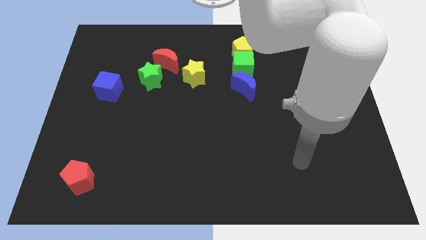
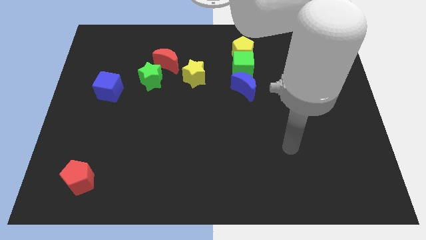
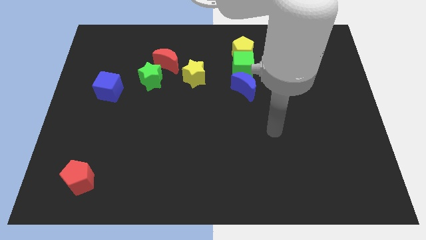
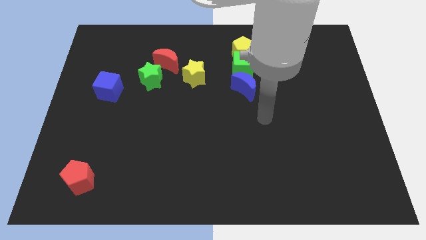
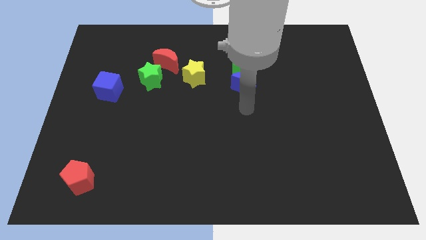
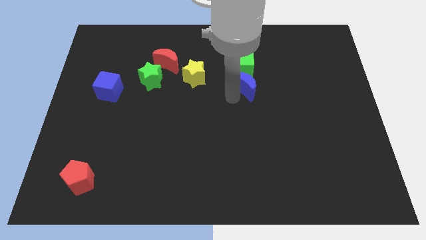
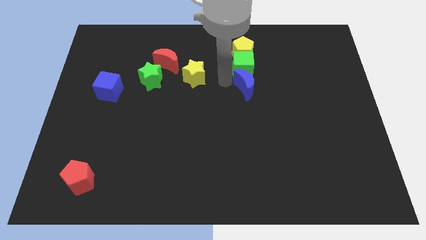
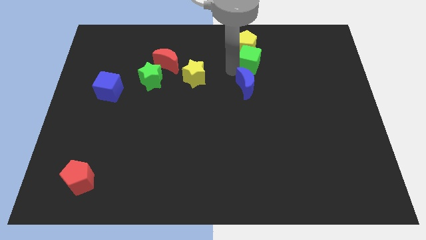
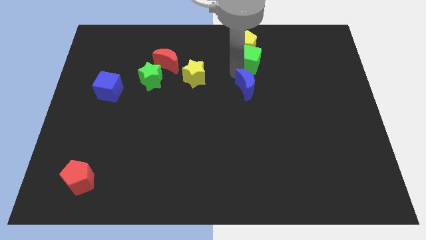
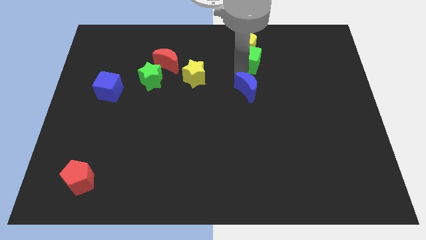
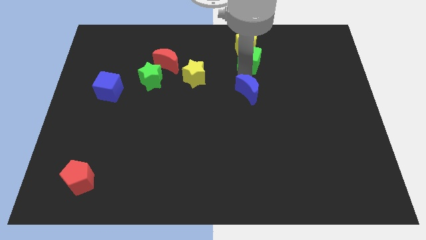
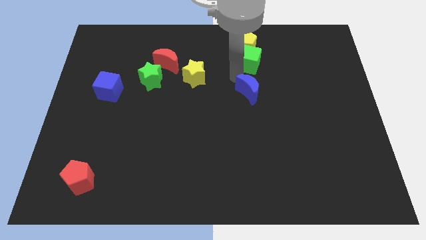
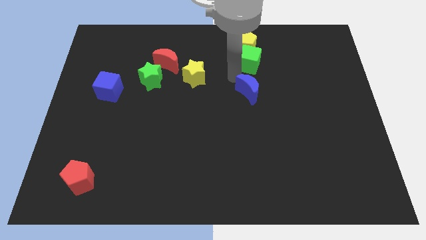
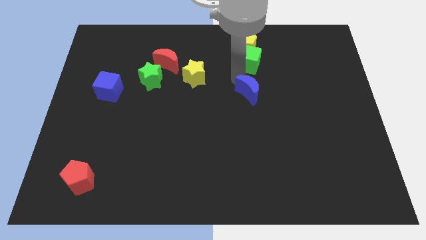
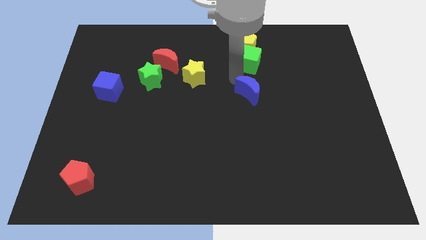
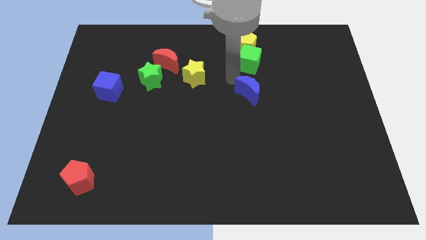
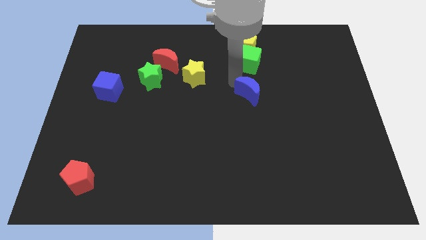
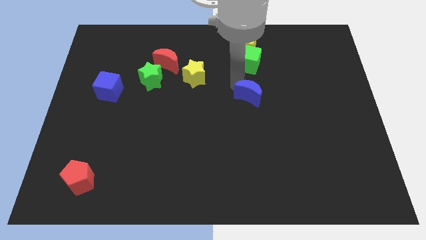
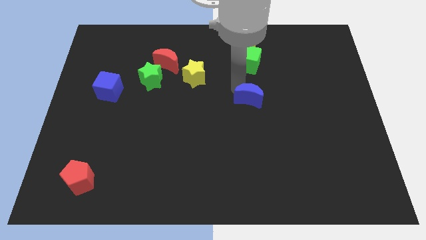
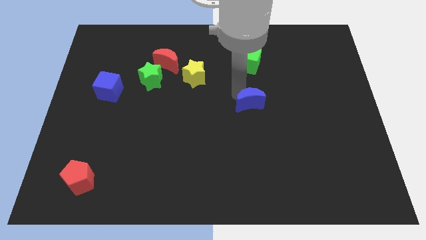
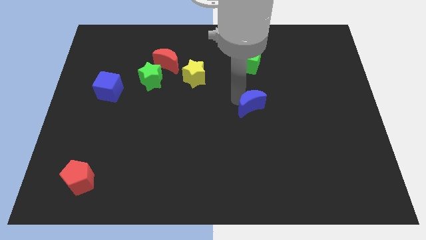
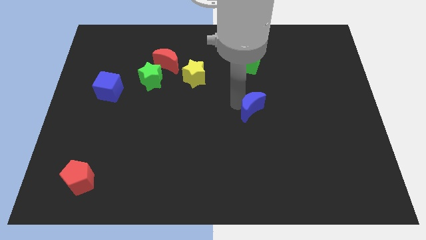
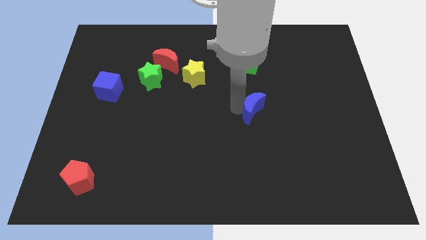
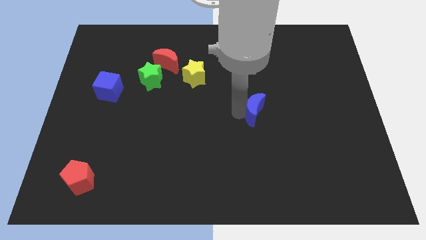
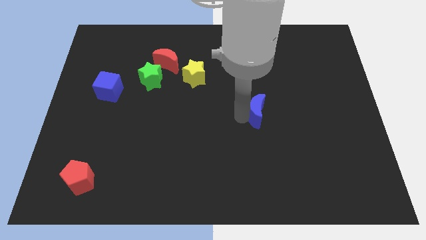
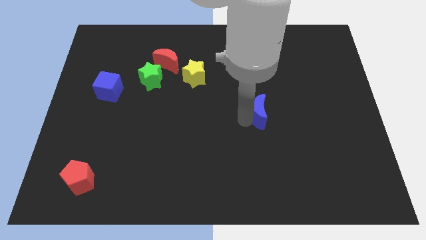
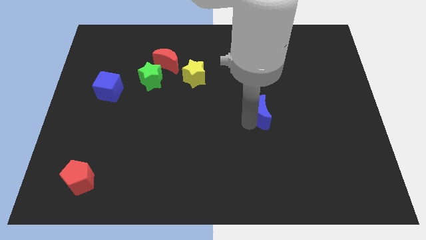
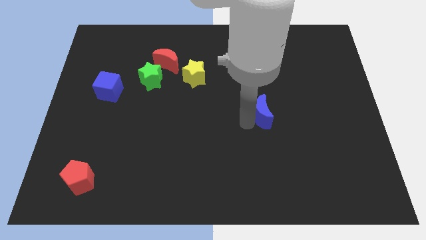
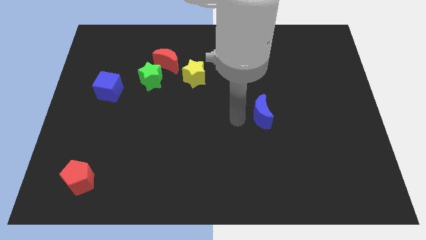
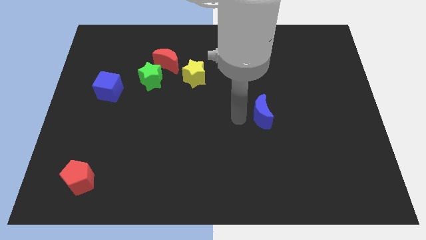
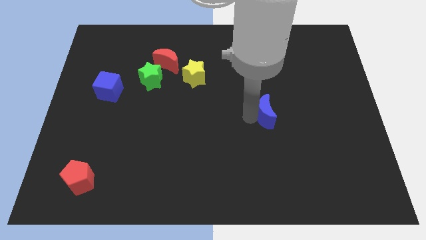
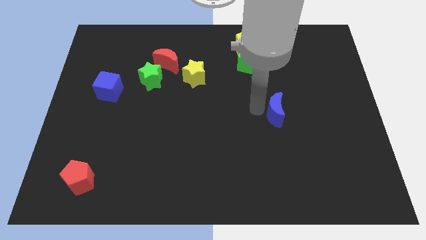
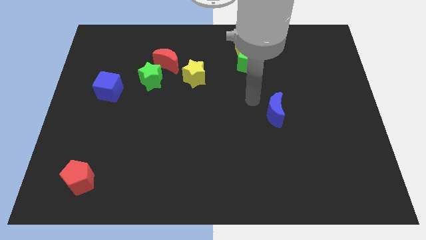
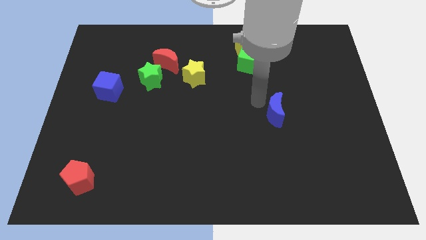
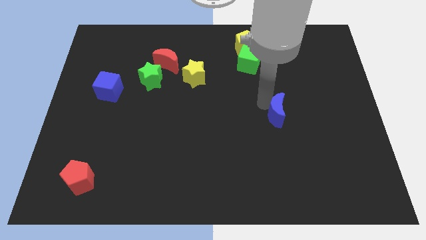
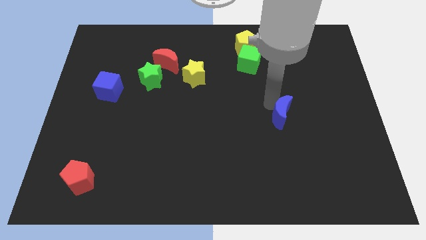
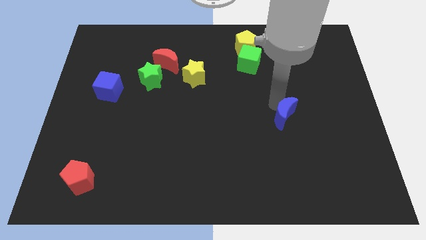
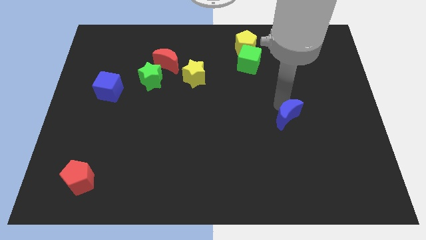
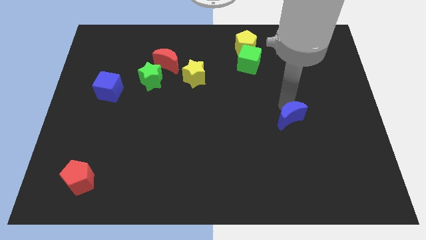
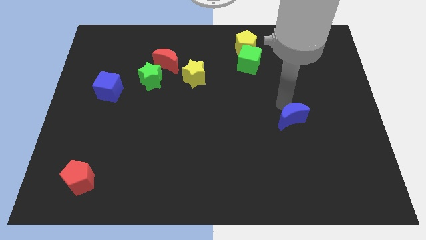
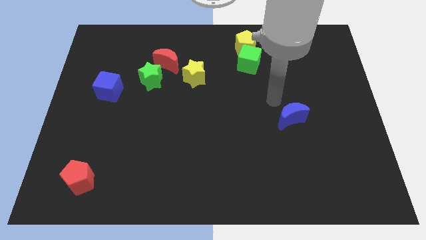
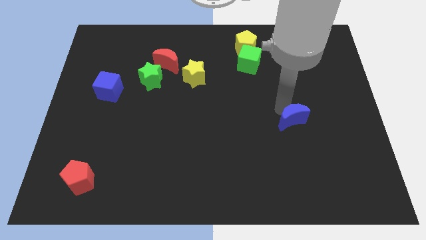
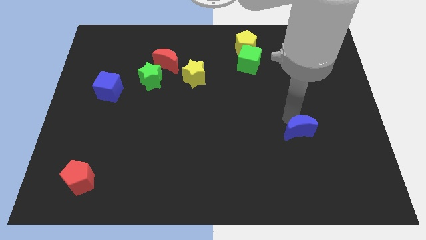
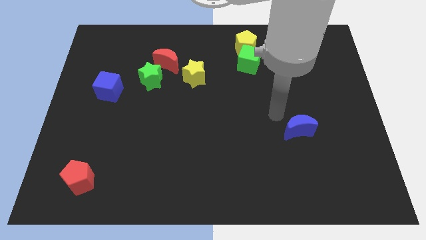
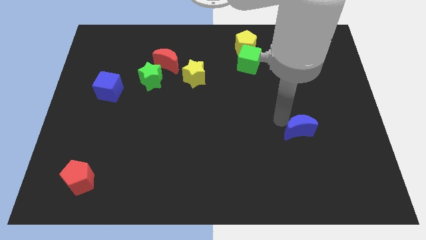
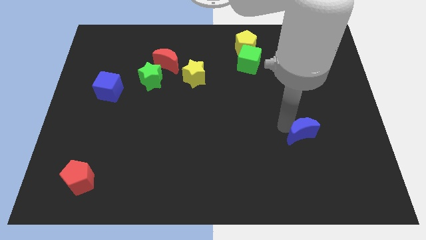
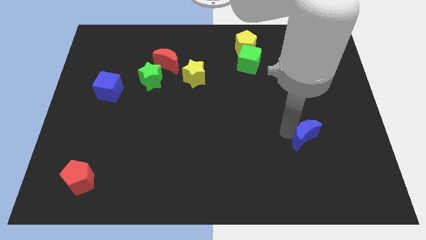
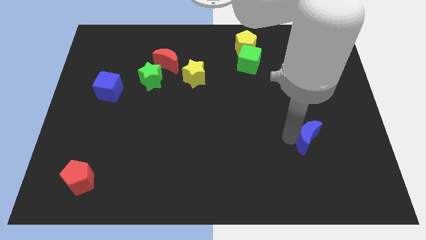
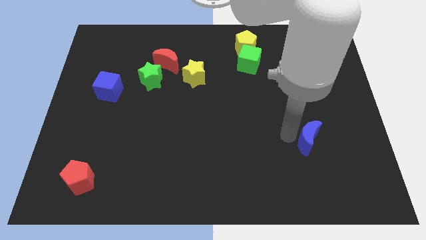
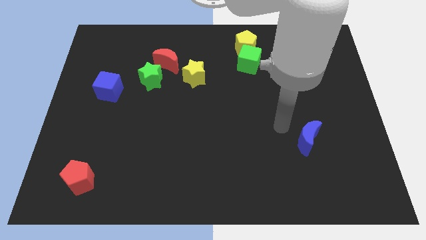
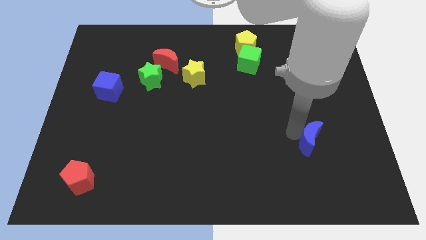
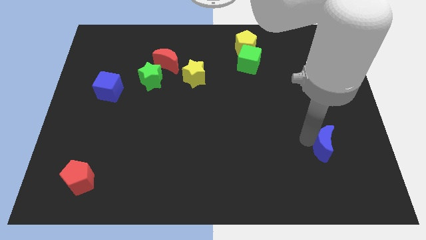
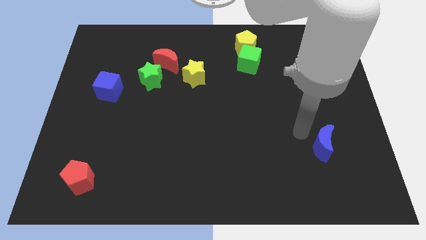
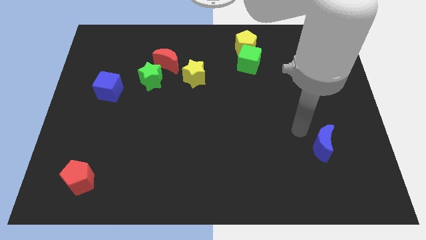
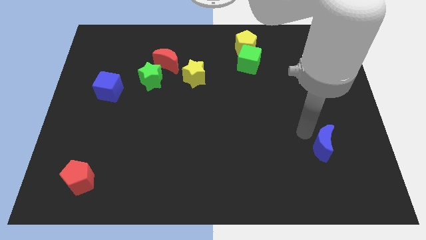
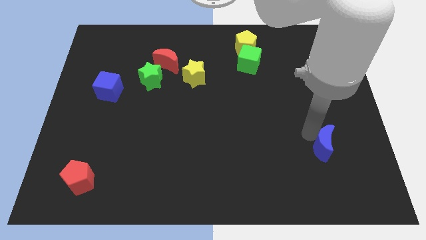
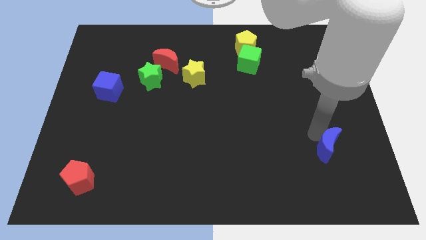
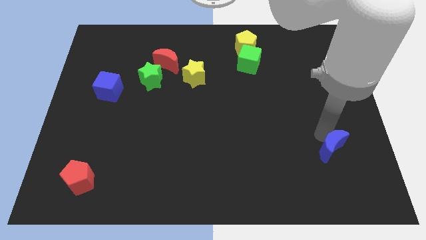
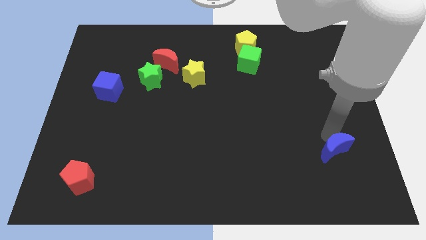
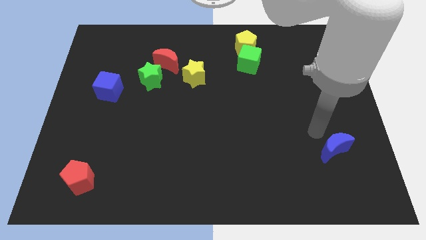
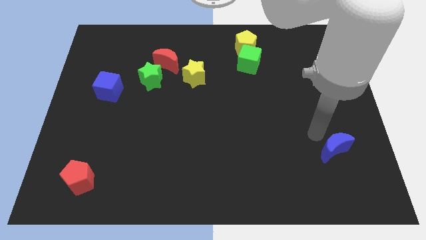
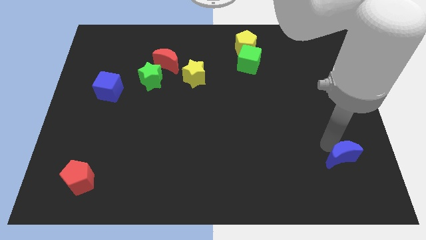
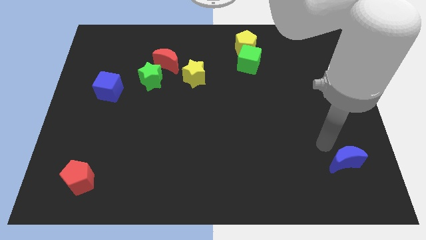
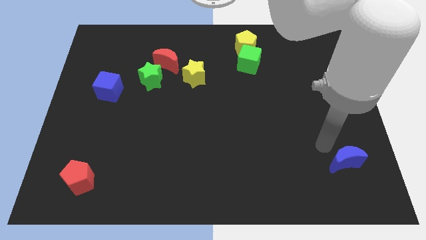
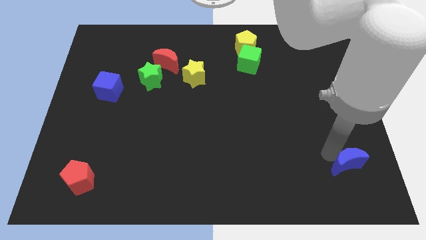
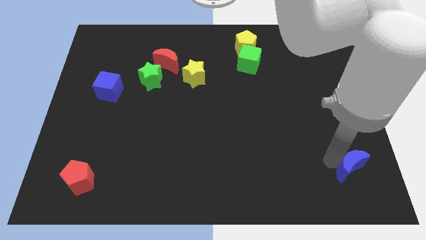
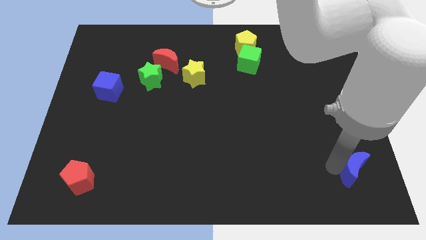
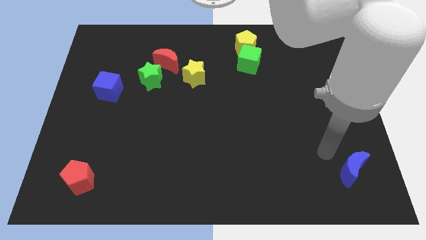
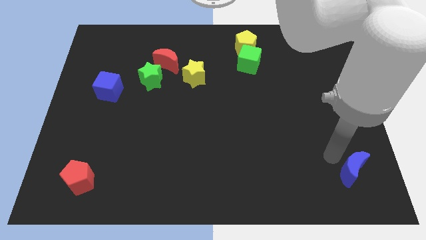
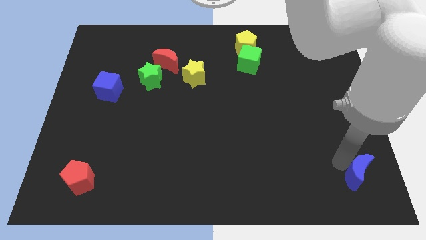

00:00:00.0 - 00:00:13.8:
slide the blue moon to the lower right corner

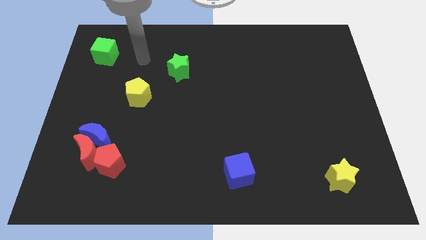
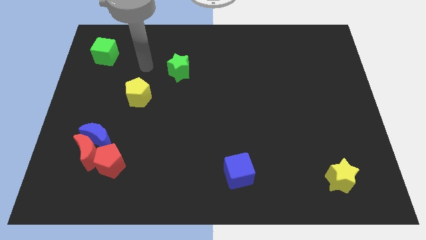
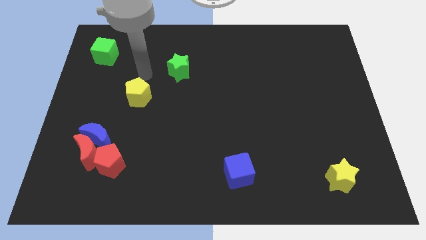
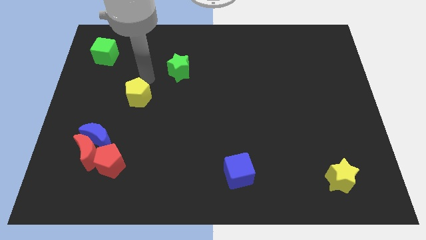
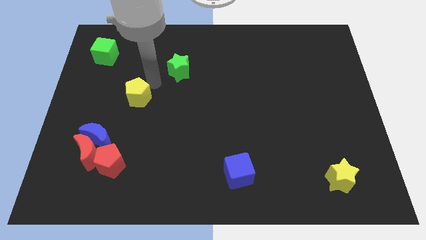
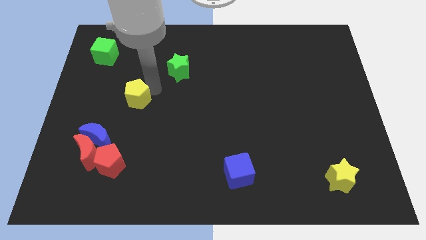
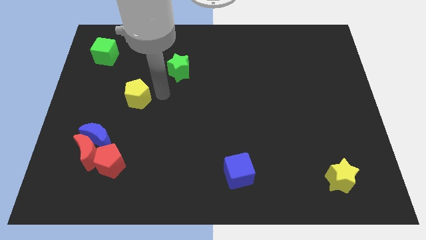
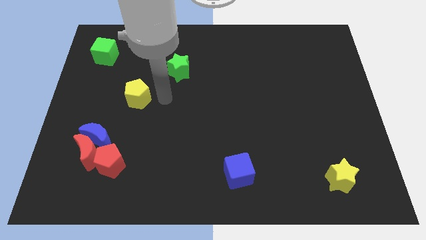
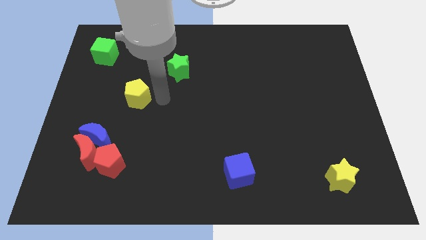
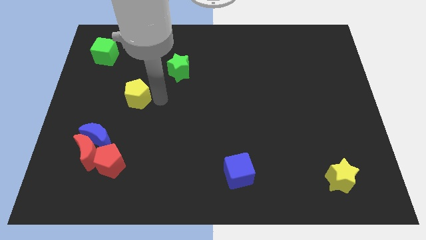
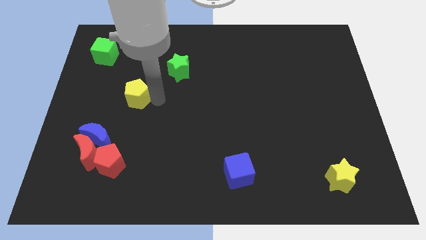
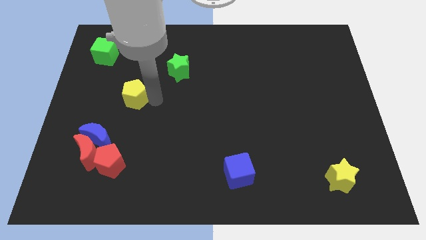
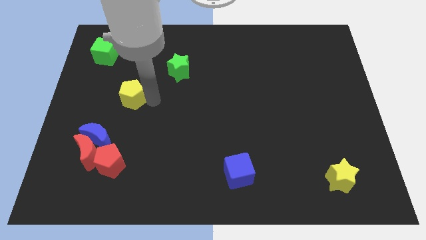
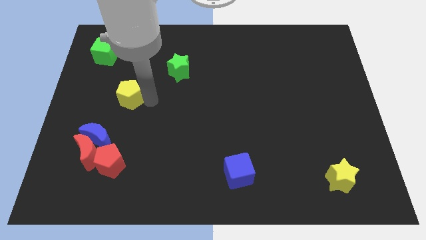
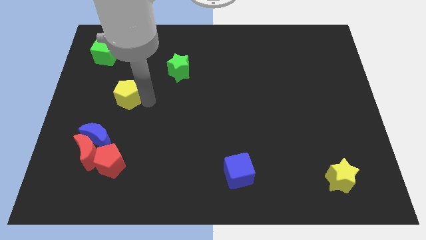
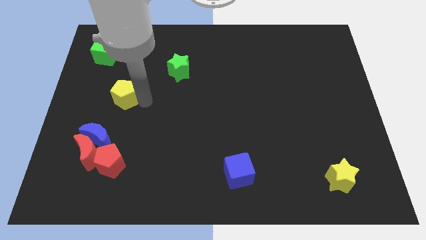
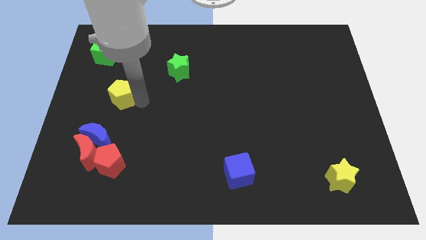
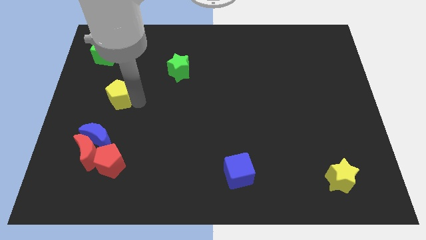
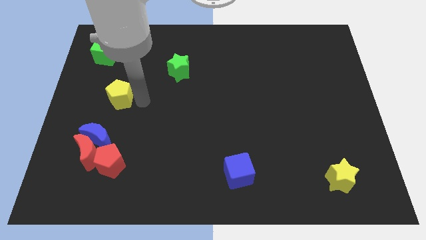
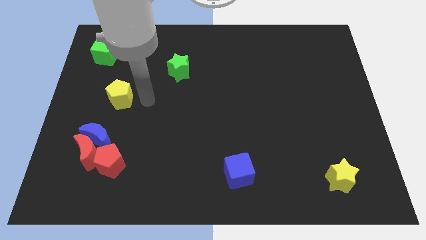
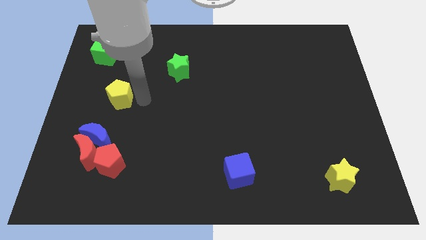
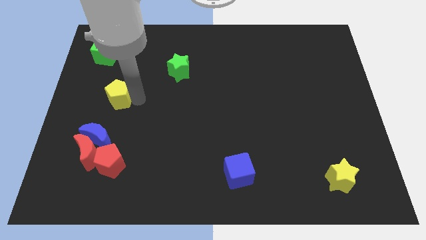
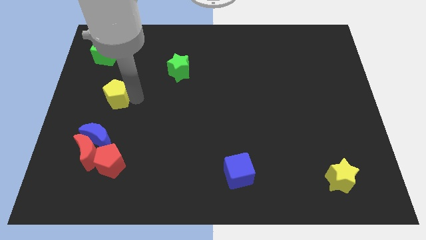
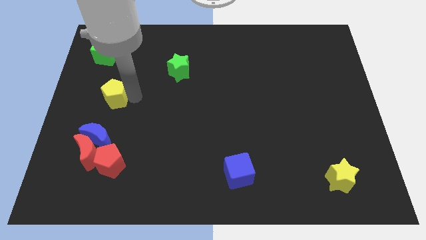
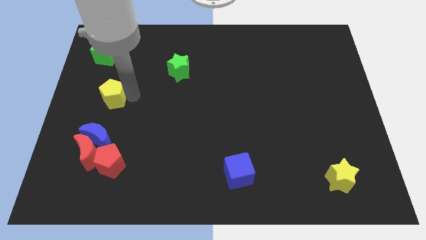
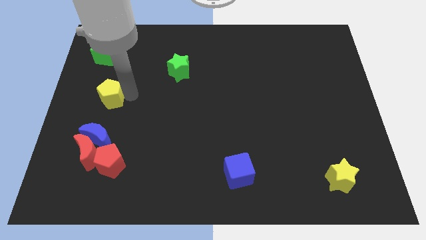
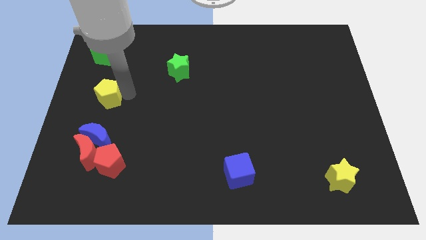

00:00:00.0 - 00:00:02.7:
put the yellow pentagon to the left side
